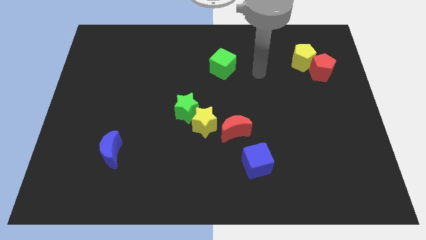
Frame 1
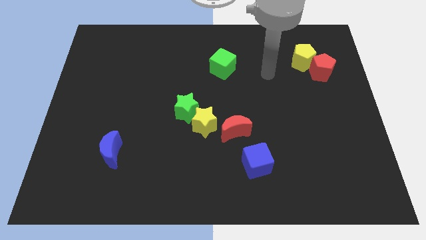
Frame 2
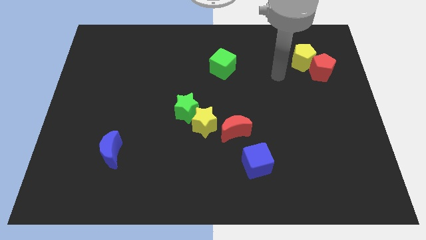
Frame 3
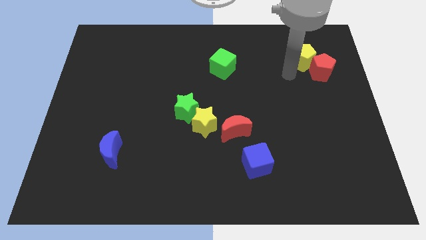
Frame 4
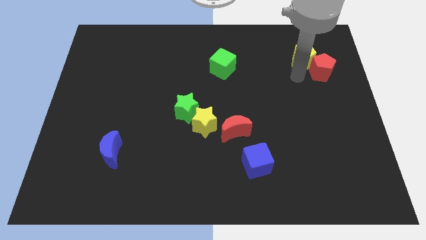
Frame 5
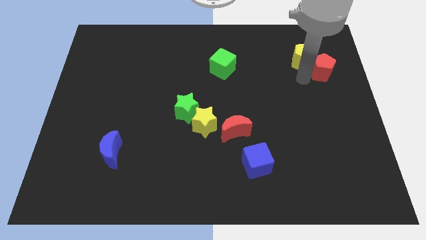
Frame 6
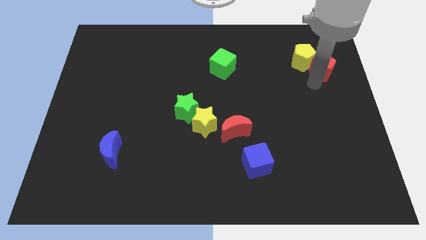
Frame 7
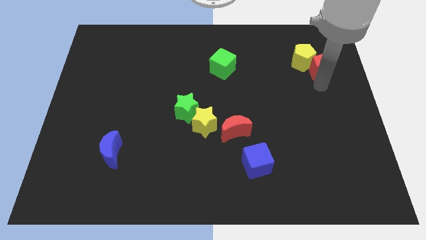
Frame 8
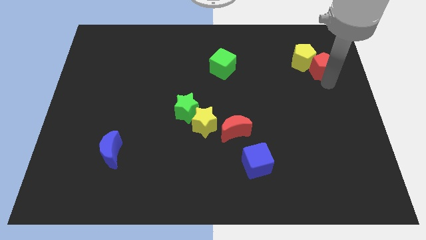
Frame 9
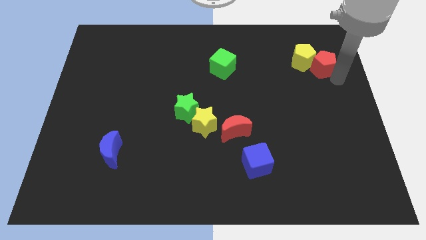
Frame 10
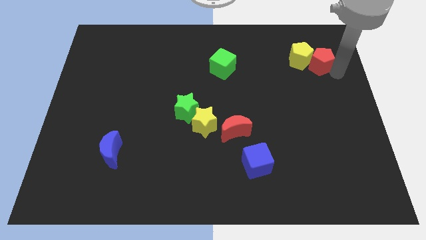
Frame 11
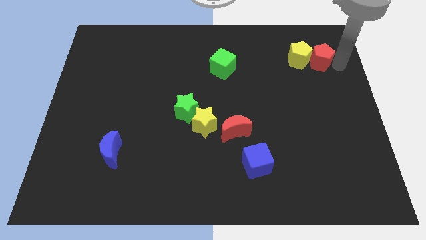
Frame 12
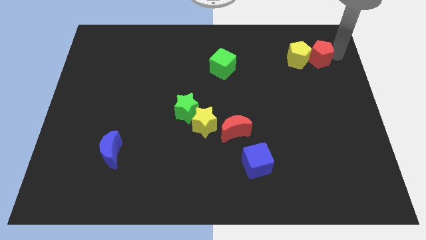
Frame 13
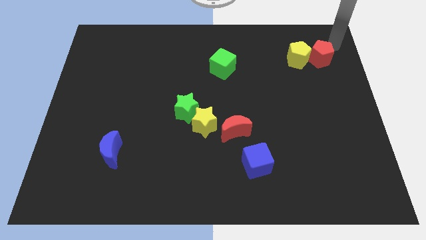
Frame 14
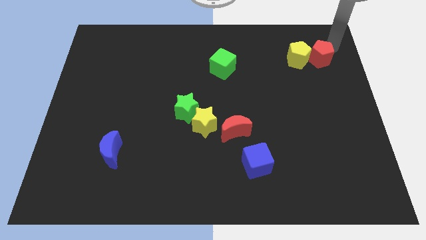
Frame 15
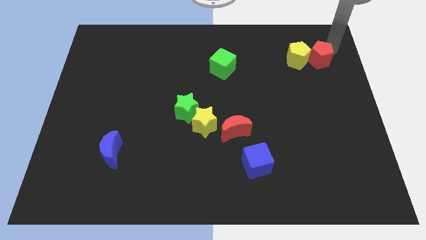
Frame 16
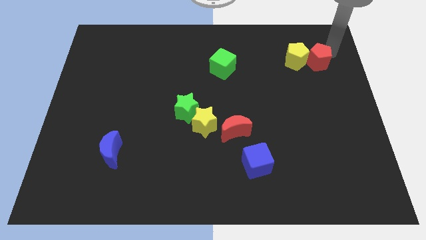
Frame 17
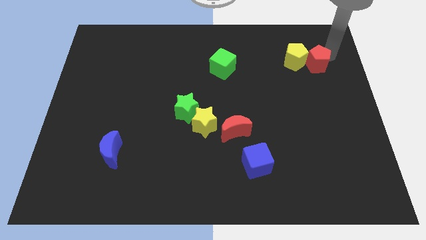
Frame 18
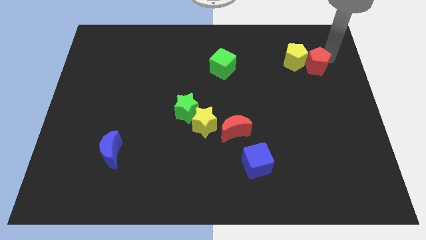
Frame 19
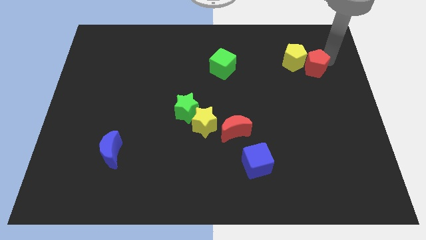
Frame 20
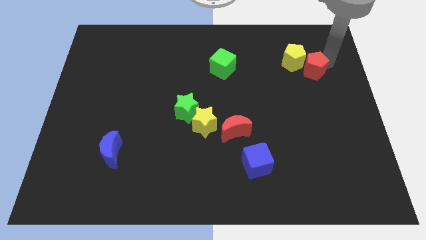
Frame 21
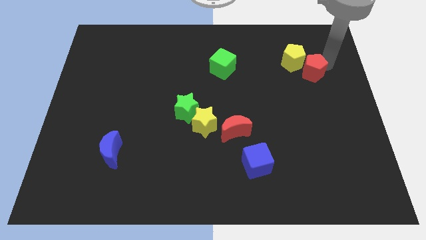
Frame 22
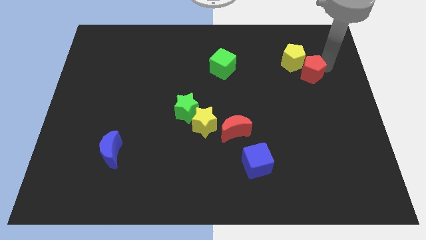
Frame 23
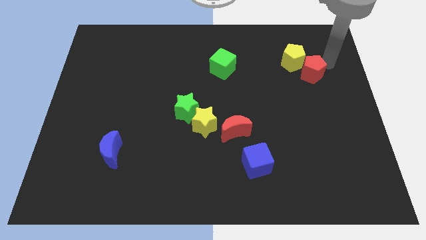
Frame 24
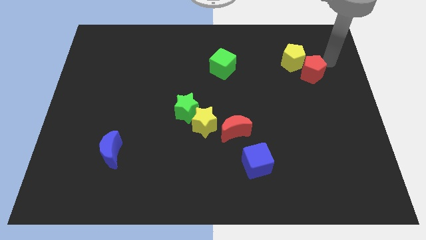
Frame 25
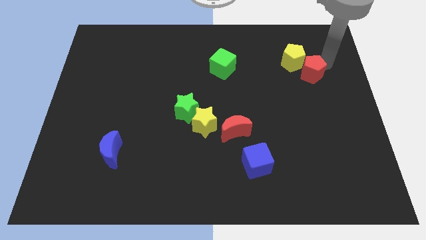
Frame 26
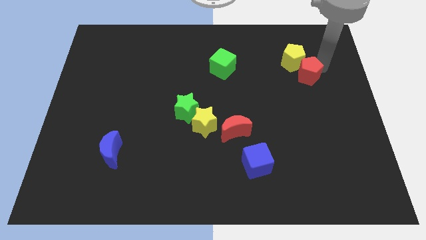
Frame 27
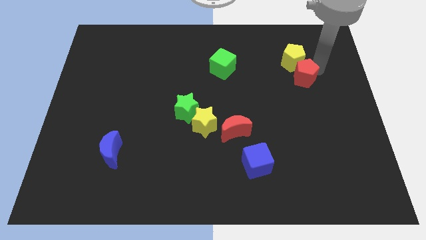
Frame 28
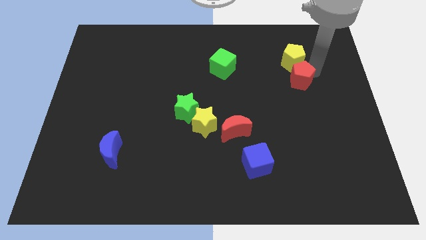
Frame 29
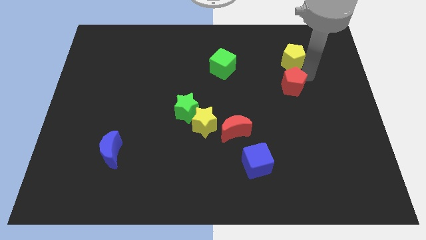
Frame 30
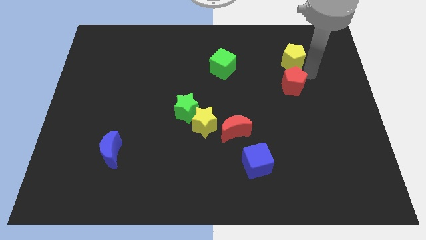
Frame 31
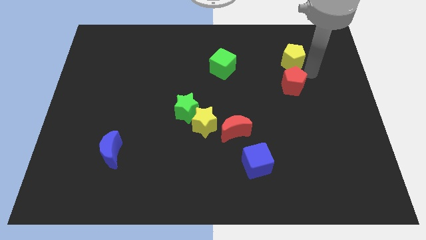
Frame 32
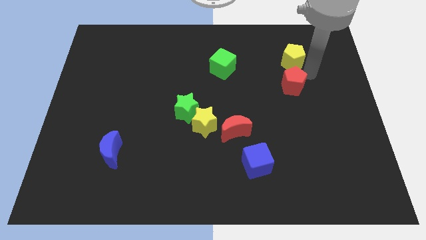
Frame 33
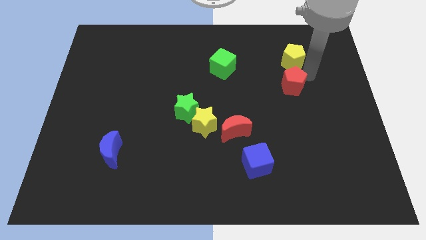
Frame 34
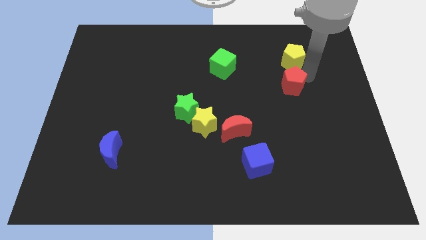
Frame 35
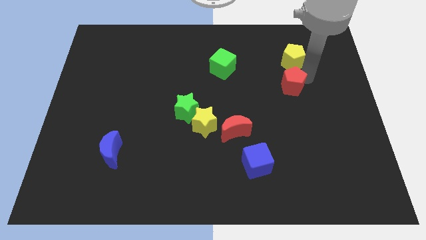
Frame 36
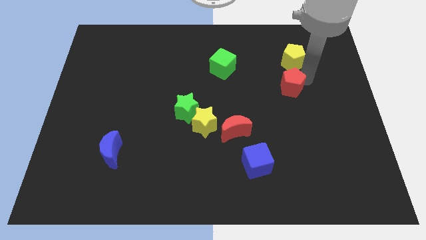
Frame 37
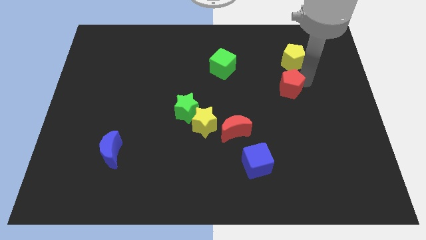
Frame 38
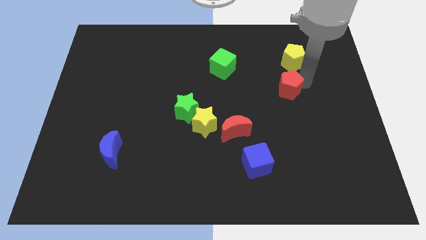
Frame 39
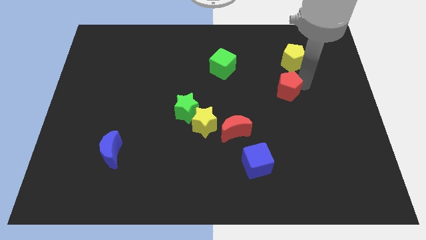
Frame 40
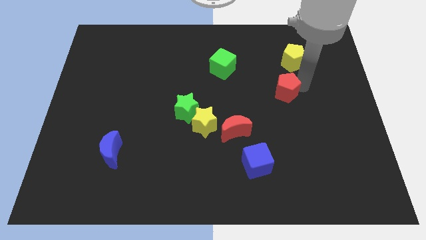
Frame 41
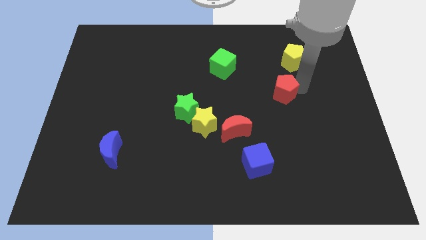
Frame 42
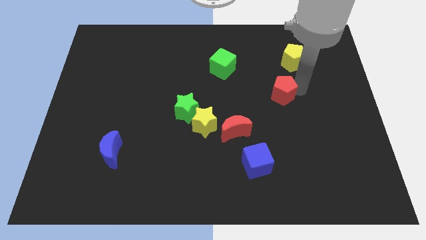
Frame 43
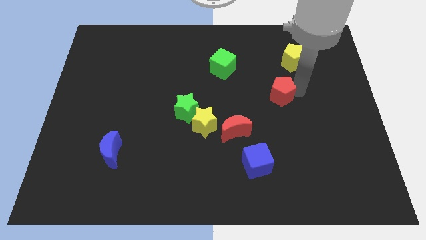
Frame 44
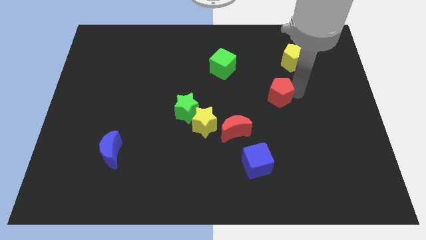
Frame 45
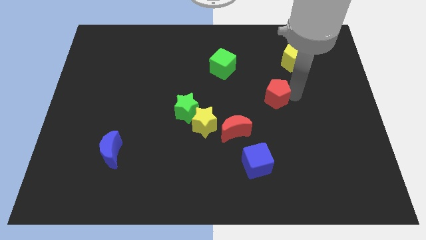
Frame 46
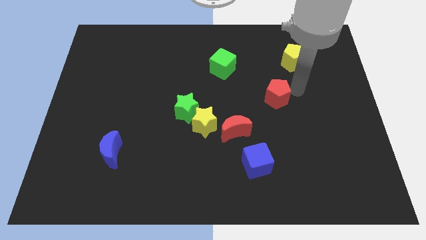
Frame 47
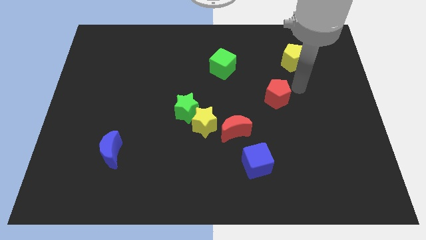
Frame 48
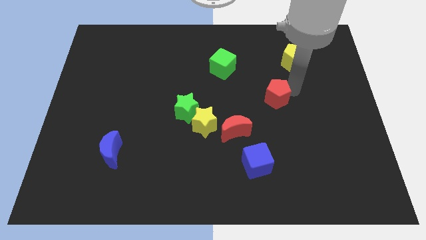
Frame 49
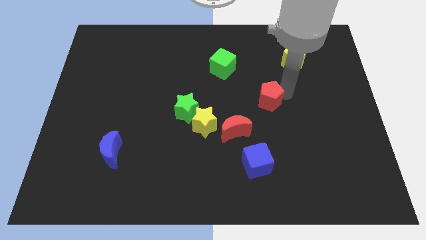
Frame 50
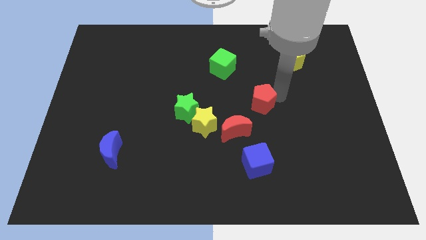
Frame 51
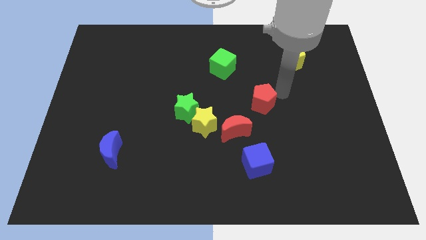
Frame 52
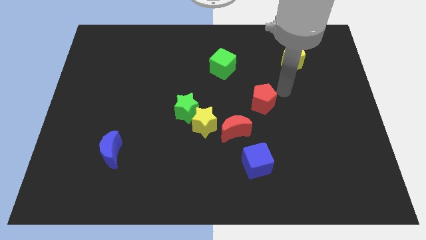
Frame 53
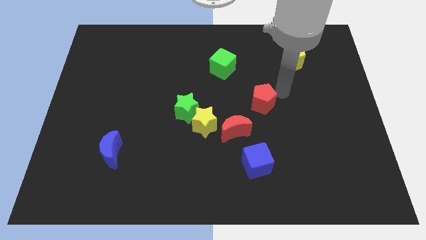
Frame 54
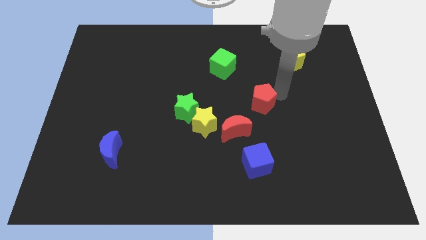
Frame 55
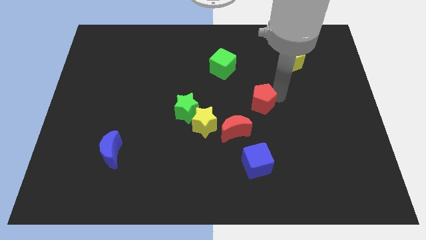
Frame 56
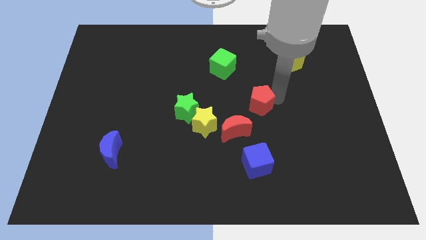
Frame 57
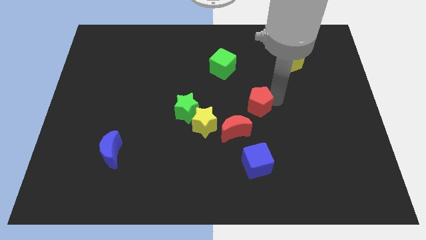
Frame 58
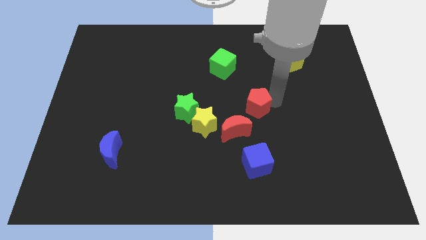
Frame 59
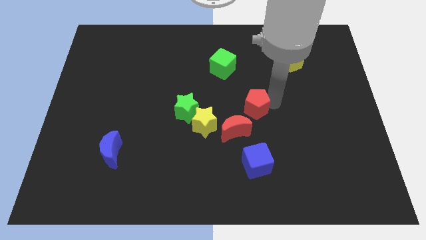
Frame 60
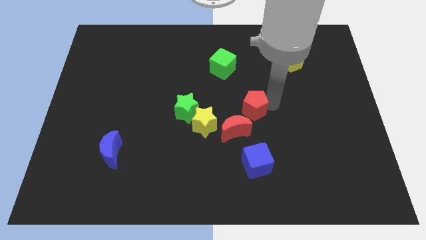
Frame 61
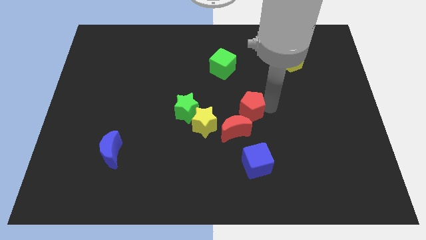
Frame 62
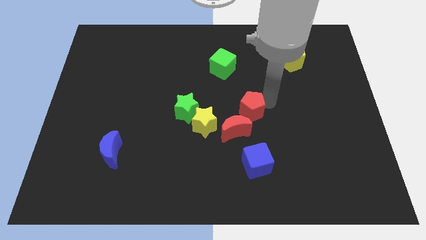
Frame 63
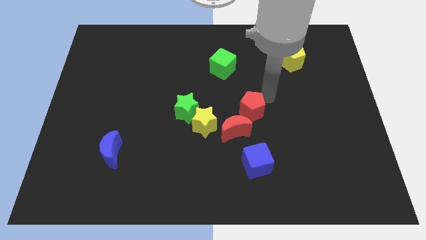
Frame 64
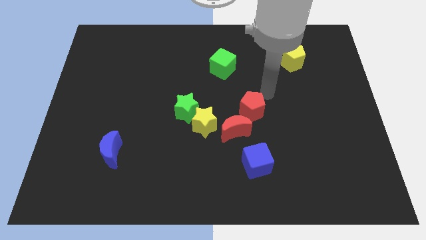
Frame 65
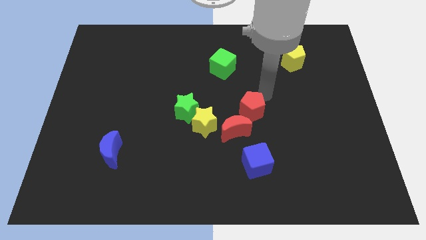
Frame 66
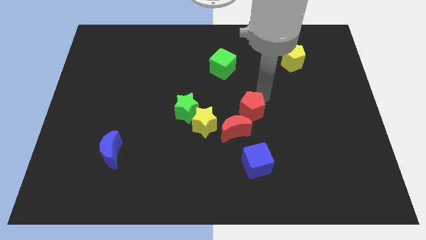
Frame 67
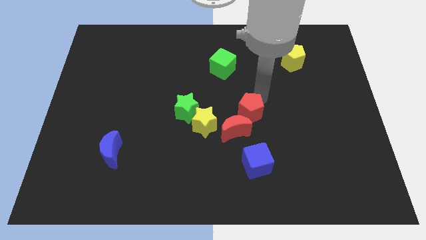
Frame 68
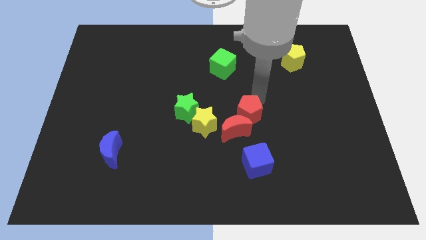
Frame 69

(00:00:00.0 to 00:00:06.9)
move the red pentagon towards the red moon
